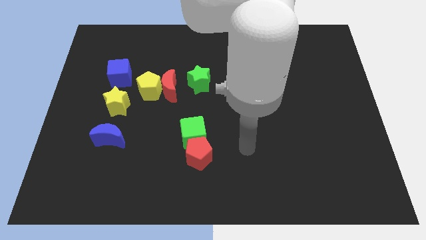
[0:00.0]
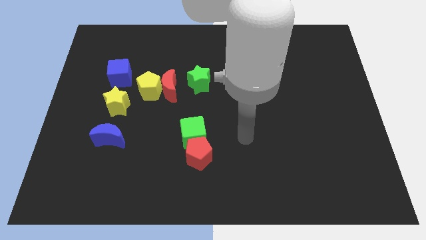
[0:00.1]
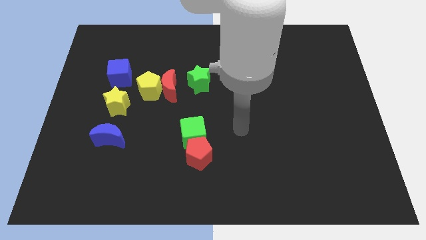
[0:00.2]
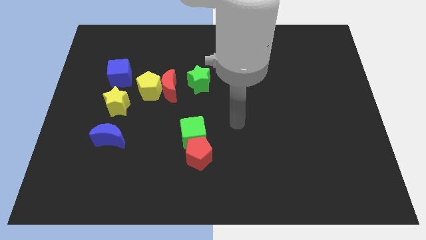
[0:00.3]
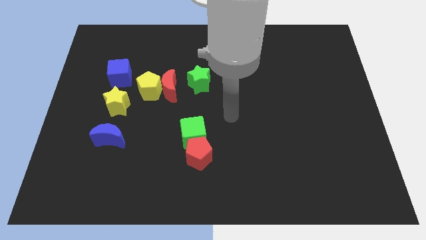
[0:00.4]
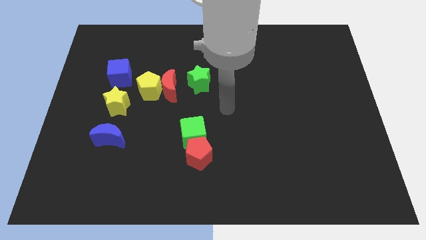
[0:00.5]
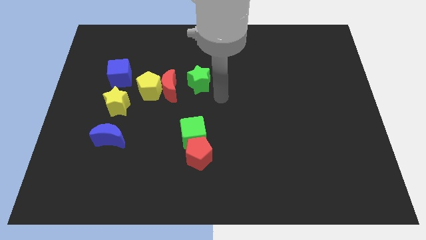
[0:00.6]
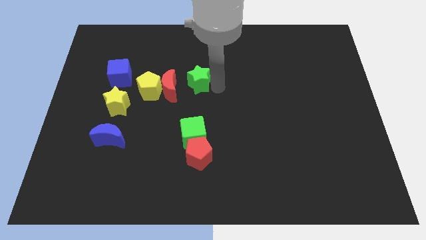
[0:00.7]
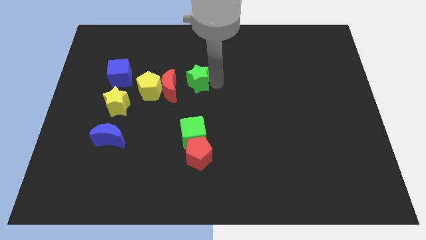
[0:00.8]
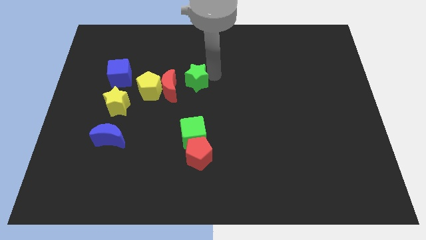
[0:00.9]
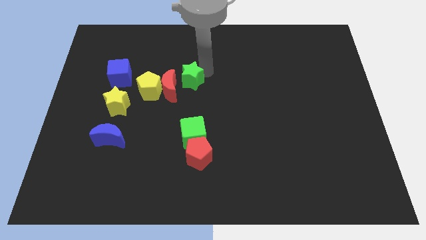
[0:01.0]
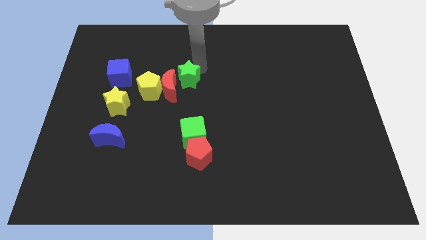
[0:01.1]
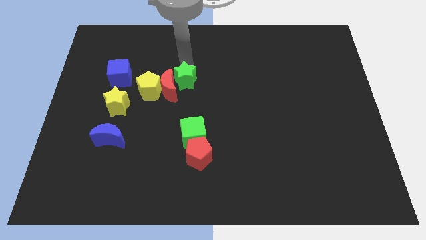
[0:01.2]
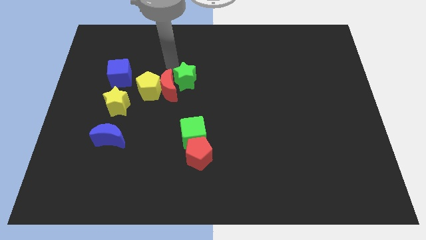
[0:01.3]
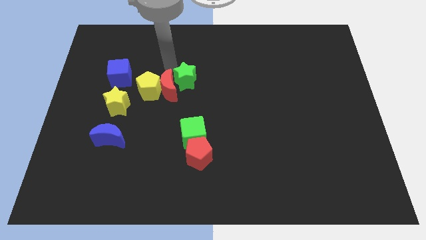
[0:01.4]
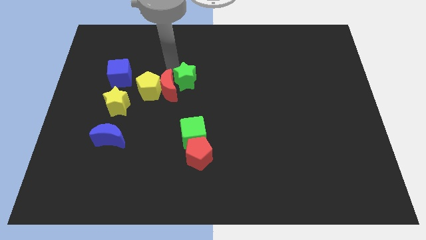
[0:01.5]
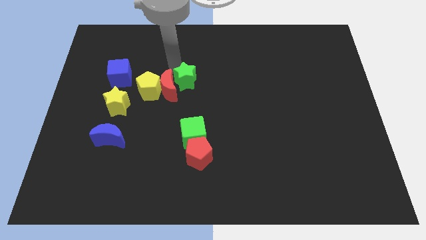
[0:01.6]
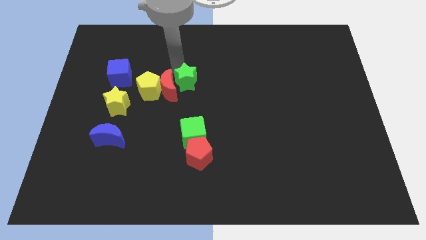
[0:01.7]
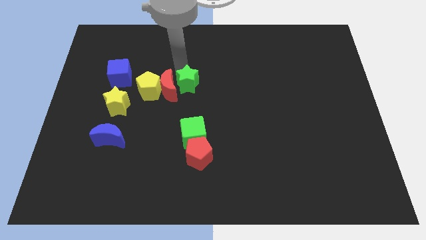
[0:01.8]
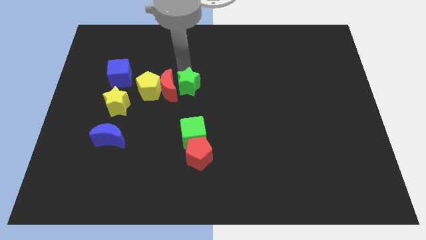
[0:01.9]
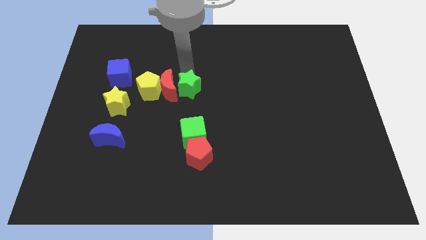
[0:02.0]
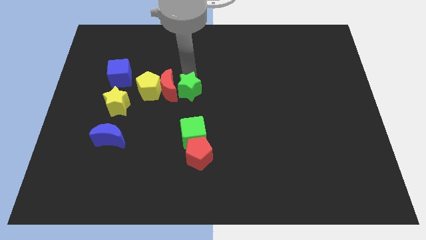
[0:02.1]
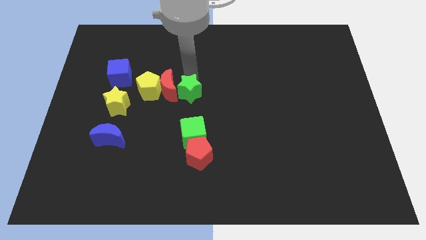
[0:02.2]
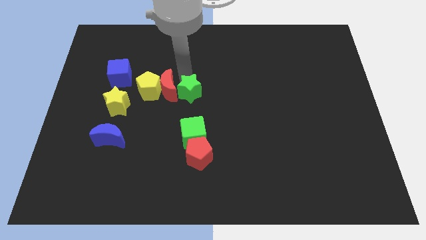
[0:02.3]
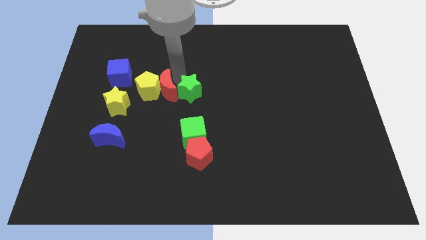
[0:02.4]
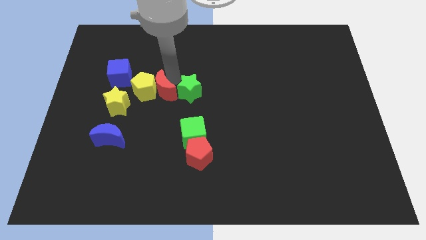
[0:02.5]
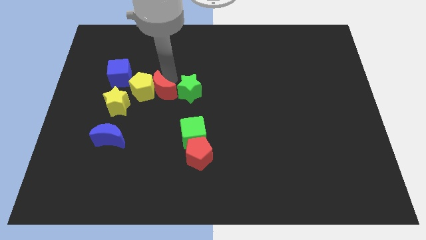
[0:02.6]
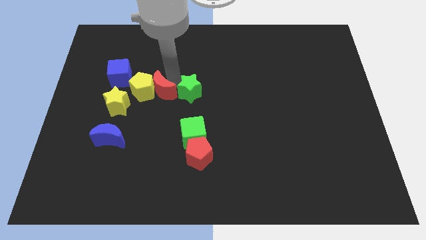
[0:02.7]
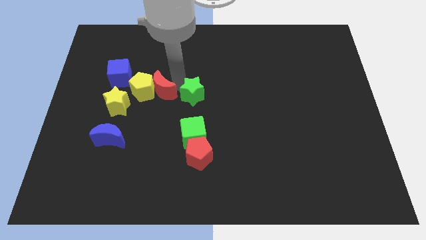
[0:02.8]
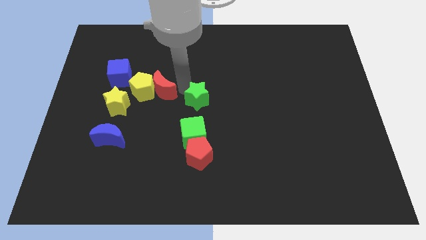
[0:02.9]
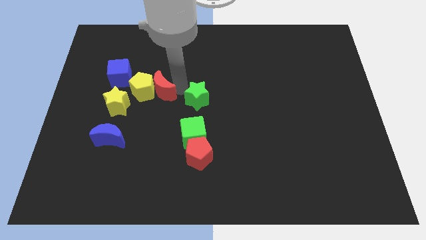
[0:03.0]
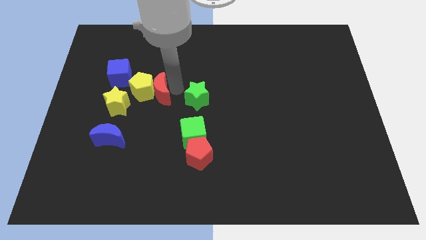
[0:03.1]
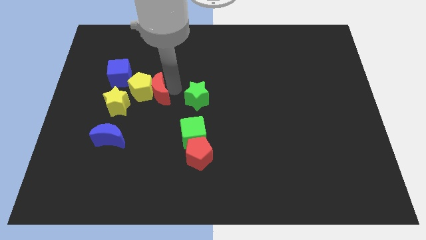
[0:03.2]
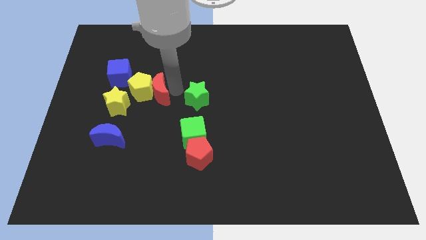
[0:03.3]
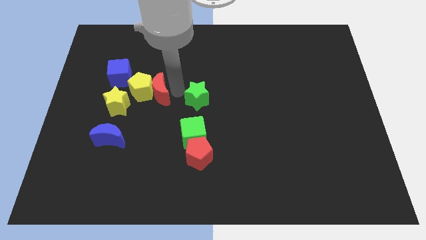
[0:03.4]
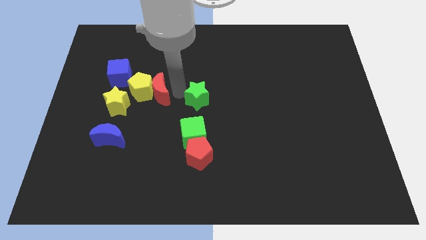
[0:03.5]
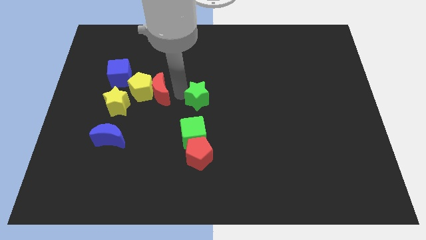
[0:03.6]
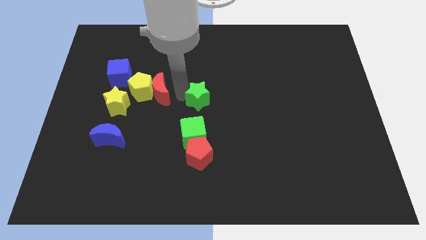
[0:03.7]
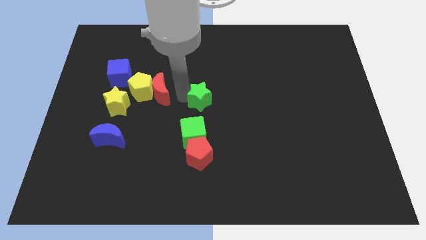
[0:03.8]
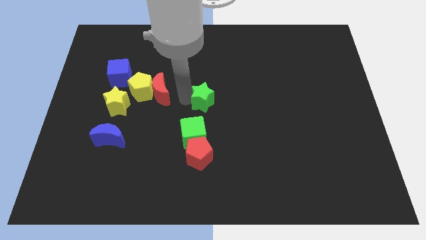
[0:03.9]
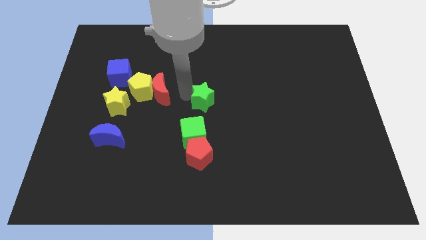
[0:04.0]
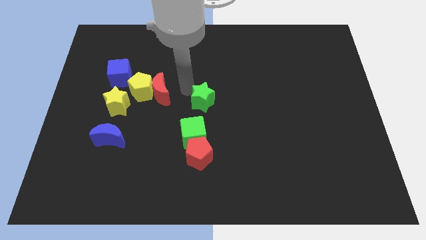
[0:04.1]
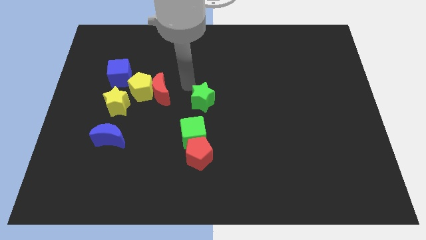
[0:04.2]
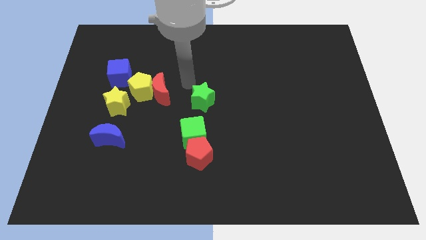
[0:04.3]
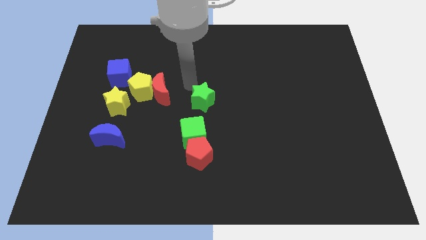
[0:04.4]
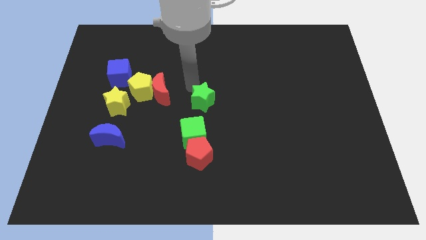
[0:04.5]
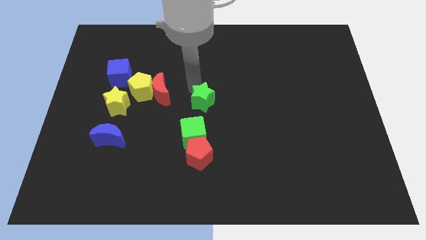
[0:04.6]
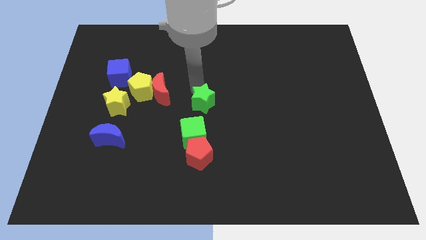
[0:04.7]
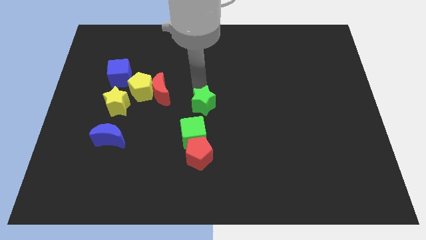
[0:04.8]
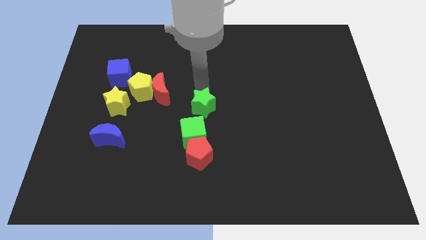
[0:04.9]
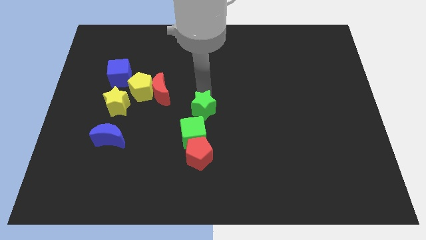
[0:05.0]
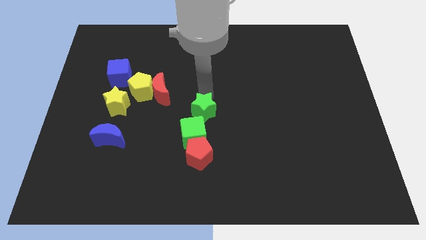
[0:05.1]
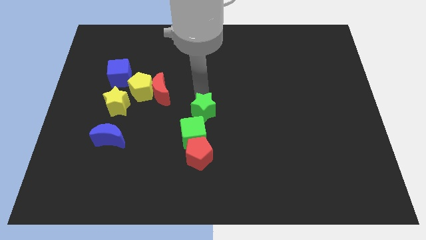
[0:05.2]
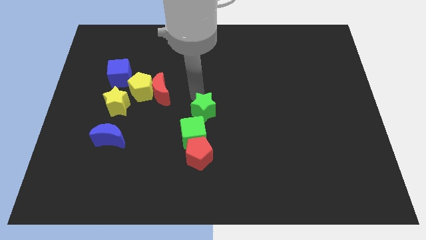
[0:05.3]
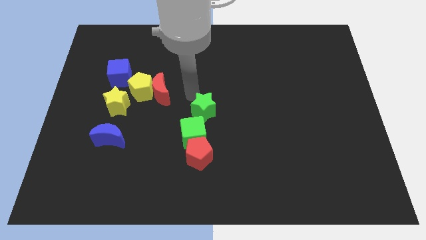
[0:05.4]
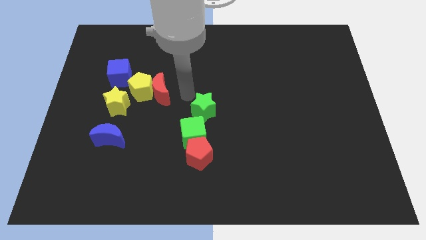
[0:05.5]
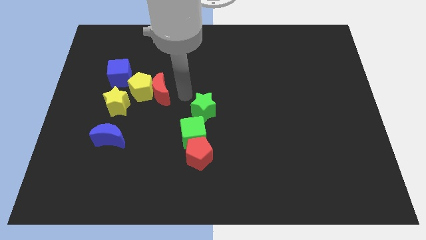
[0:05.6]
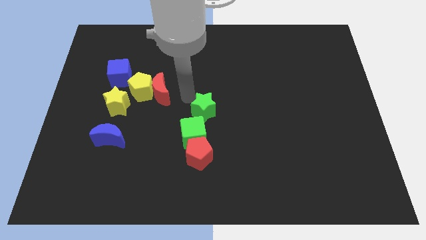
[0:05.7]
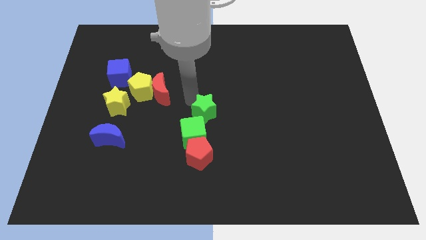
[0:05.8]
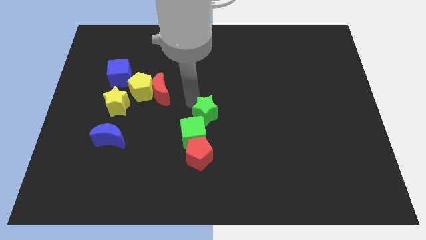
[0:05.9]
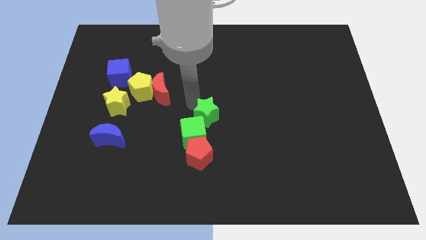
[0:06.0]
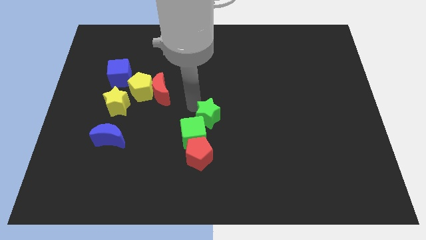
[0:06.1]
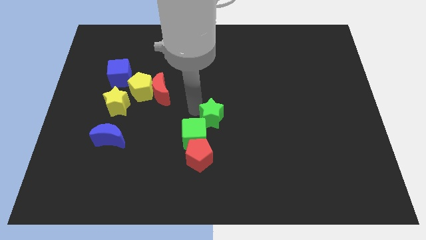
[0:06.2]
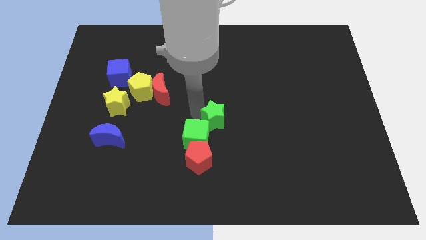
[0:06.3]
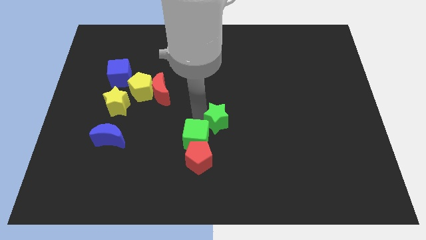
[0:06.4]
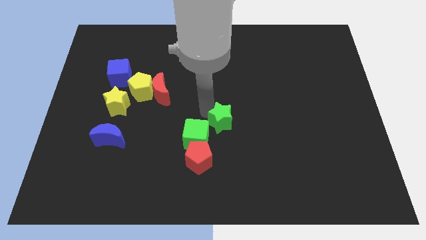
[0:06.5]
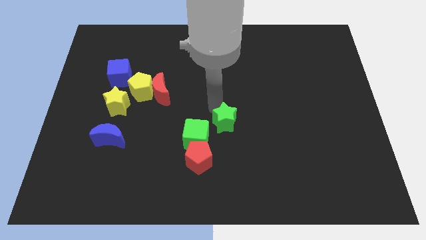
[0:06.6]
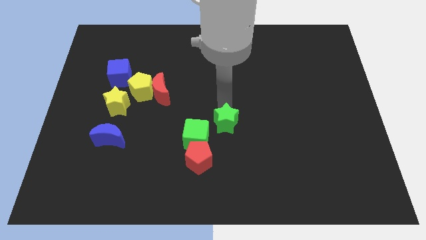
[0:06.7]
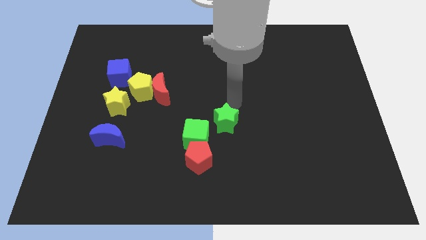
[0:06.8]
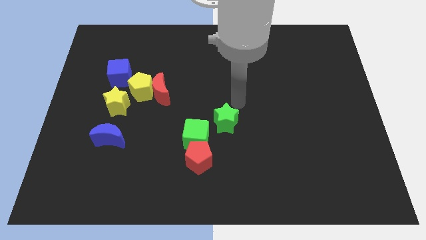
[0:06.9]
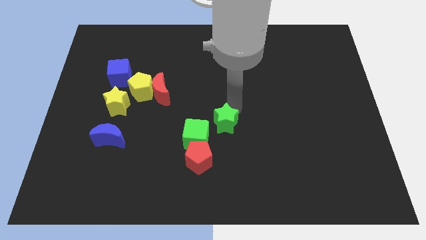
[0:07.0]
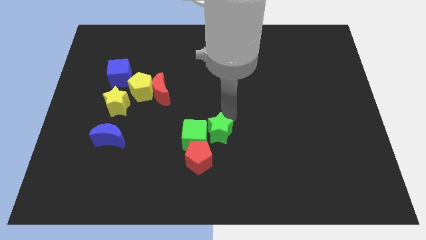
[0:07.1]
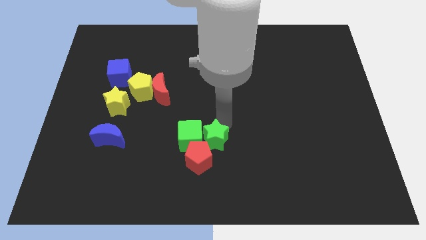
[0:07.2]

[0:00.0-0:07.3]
move the green star next to the red pentagon
